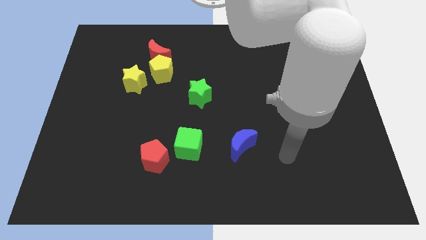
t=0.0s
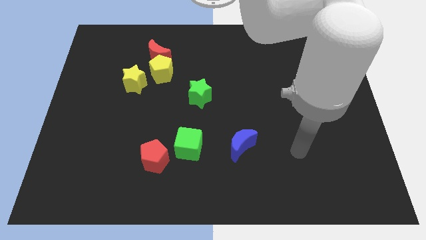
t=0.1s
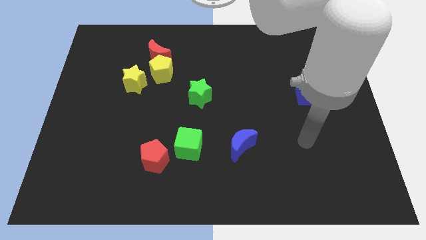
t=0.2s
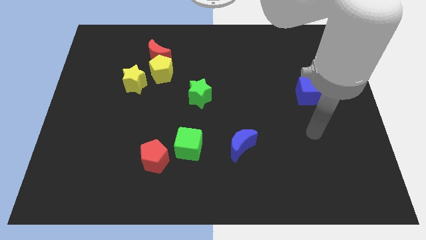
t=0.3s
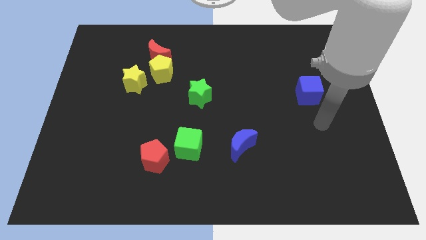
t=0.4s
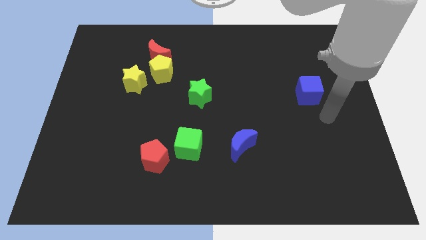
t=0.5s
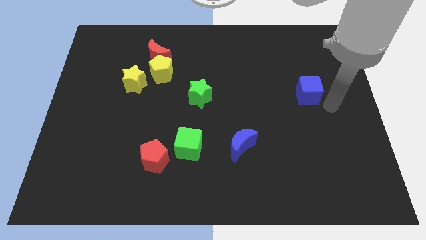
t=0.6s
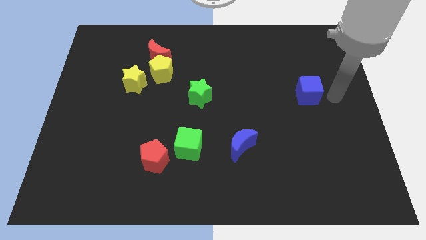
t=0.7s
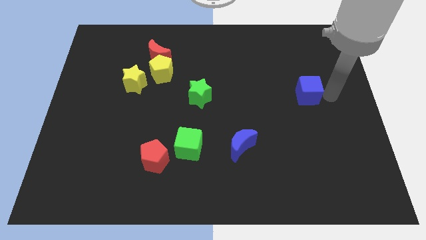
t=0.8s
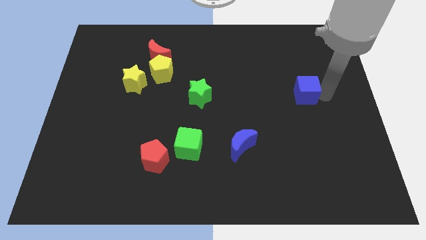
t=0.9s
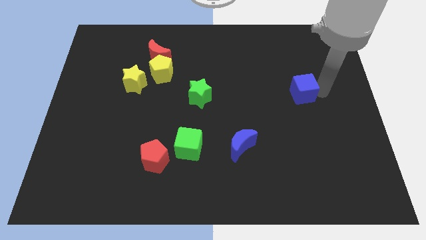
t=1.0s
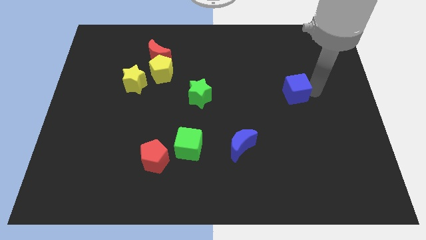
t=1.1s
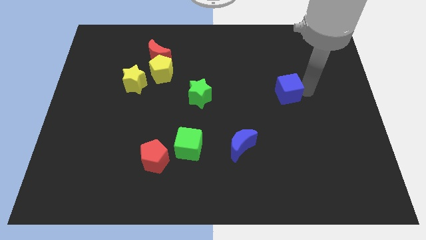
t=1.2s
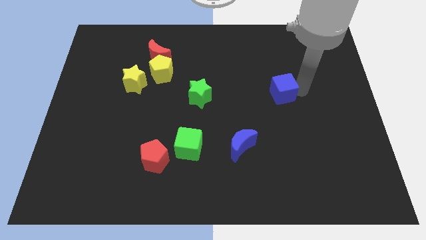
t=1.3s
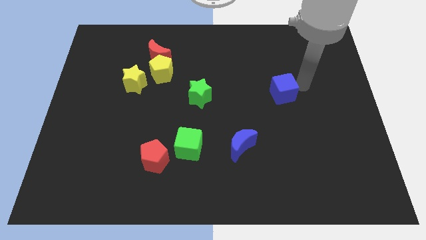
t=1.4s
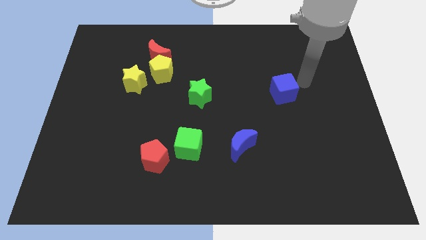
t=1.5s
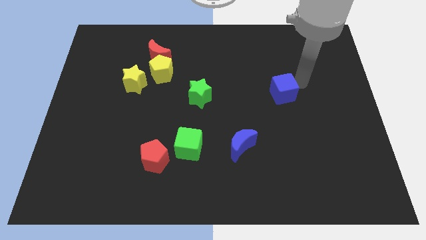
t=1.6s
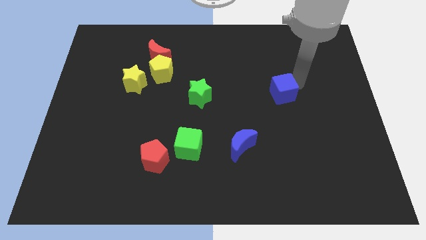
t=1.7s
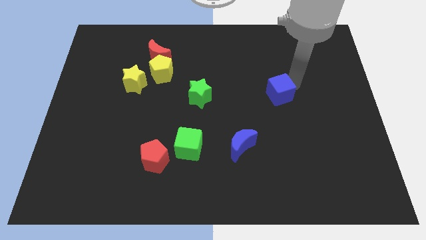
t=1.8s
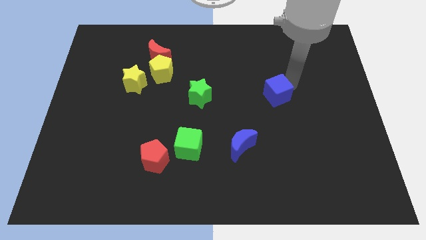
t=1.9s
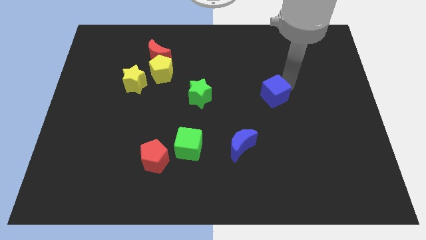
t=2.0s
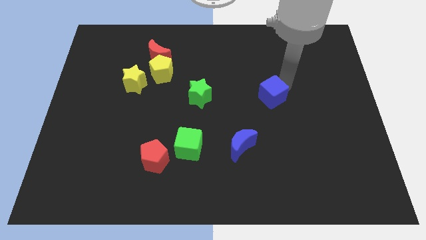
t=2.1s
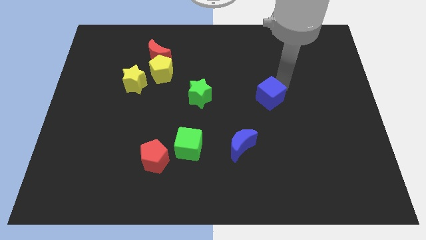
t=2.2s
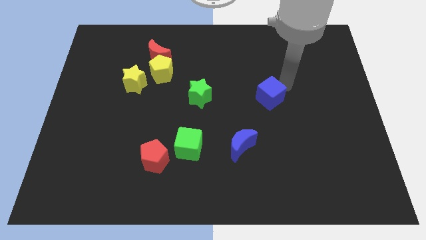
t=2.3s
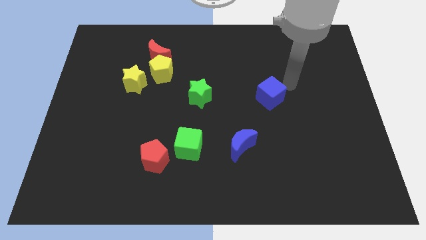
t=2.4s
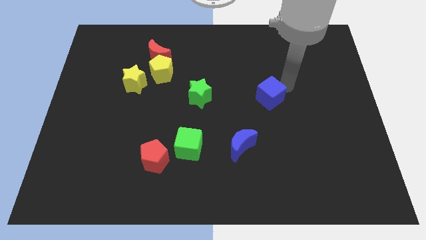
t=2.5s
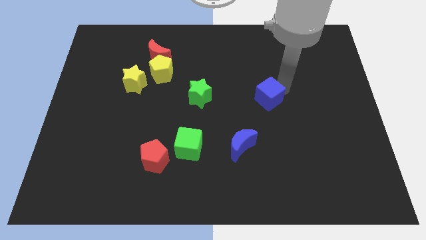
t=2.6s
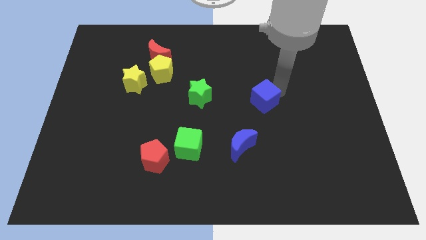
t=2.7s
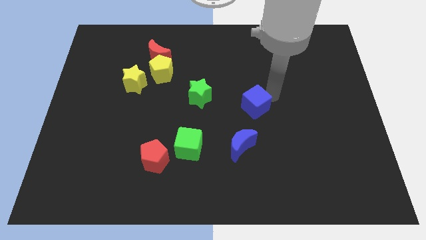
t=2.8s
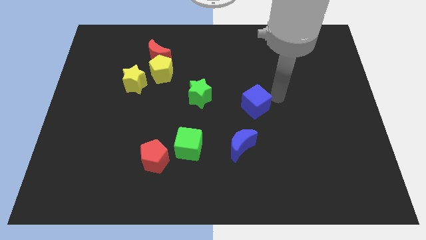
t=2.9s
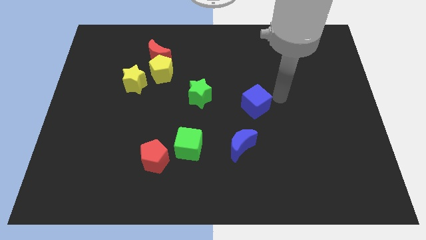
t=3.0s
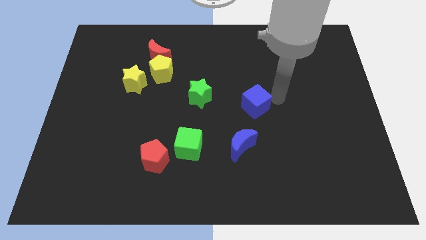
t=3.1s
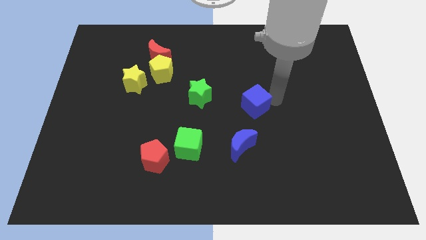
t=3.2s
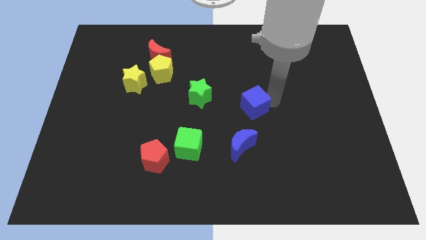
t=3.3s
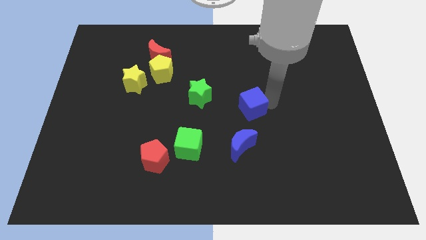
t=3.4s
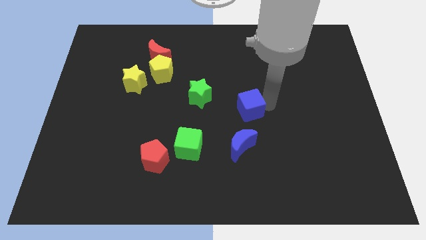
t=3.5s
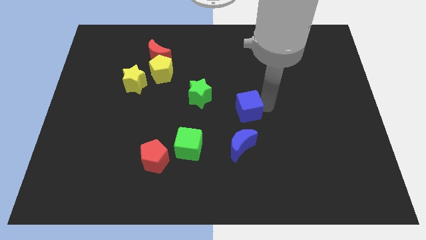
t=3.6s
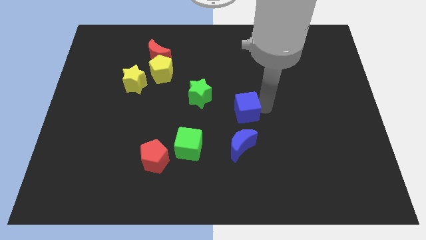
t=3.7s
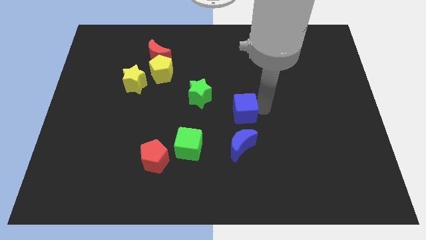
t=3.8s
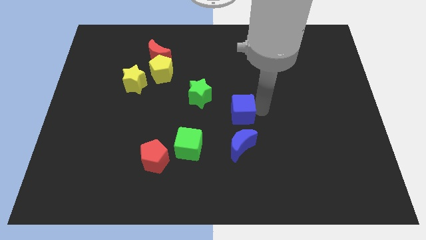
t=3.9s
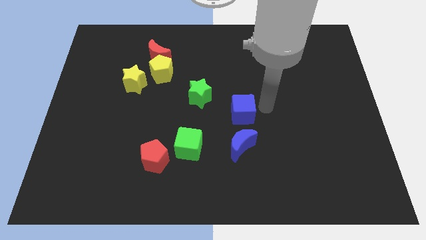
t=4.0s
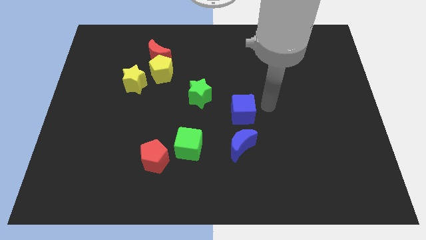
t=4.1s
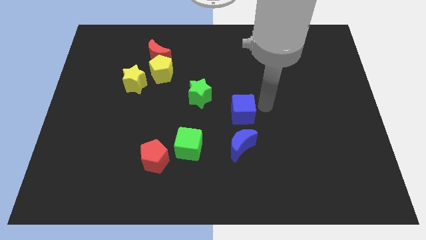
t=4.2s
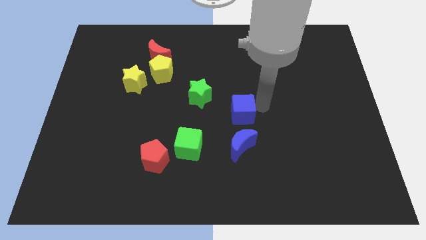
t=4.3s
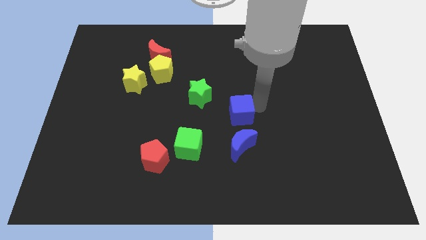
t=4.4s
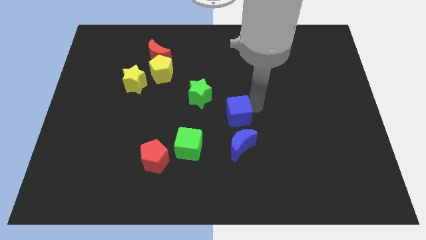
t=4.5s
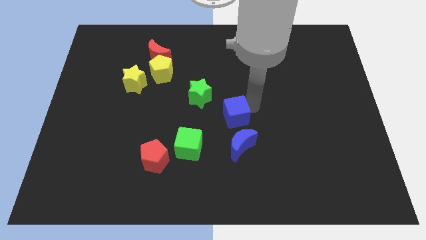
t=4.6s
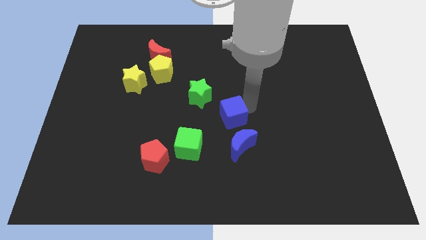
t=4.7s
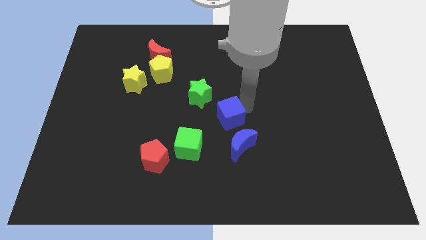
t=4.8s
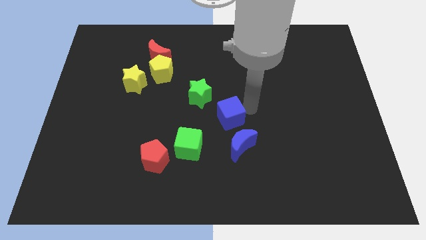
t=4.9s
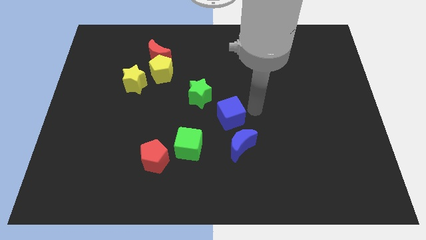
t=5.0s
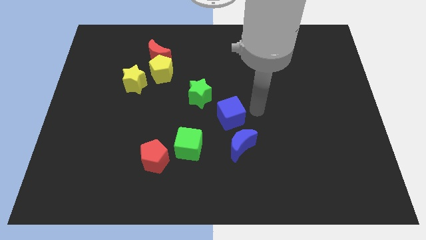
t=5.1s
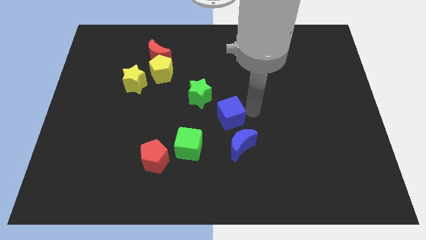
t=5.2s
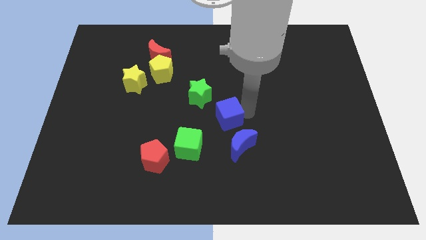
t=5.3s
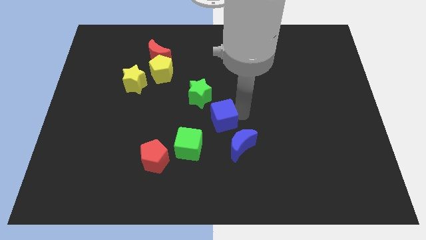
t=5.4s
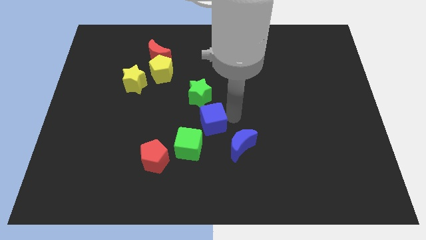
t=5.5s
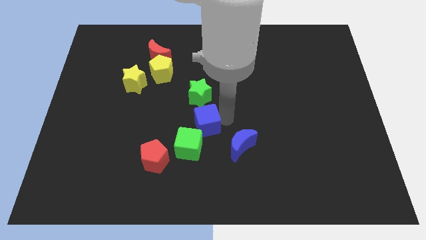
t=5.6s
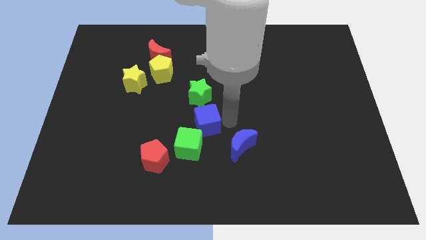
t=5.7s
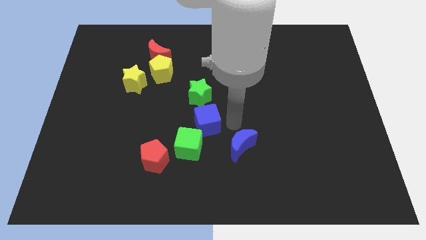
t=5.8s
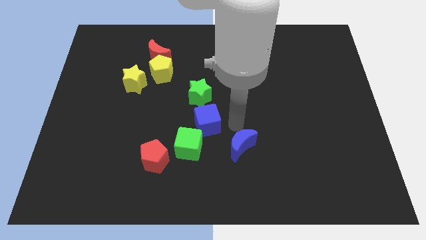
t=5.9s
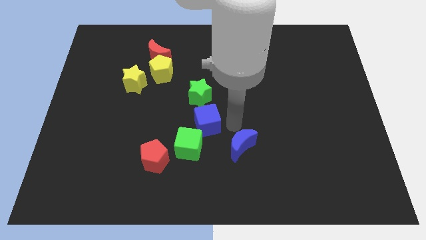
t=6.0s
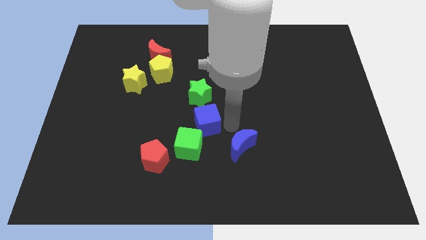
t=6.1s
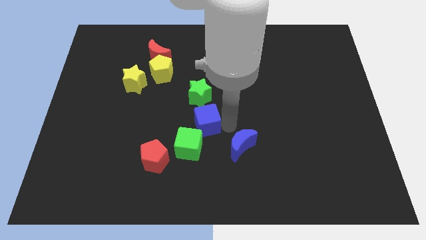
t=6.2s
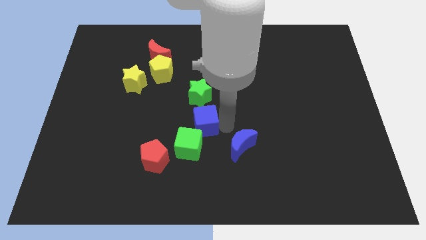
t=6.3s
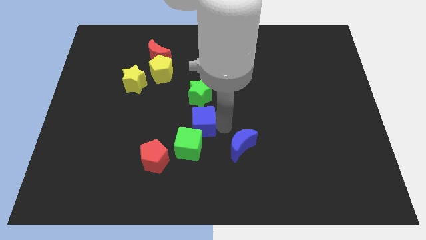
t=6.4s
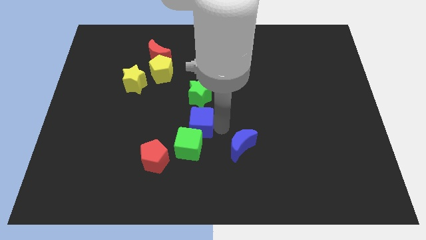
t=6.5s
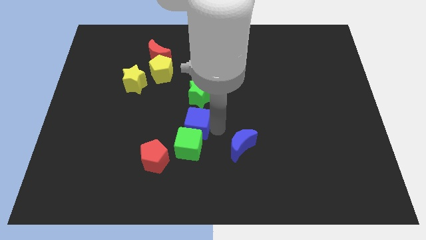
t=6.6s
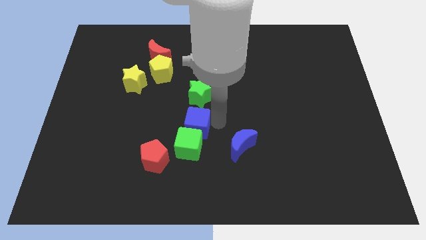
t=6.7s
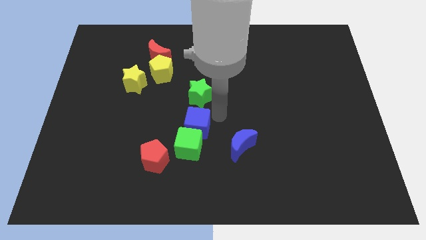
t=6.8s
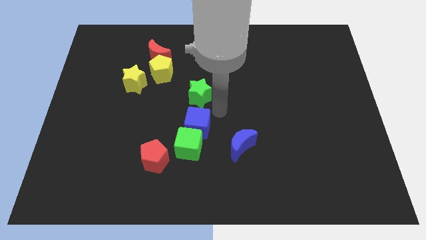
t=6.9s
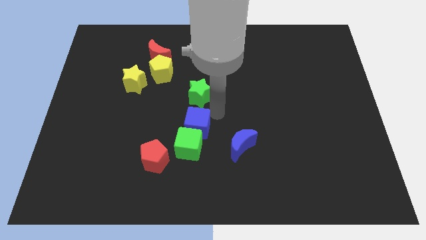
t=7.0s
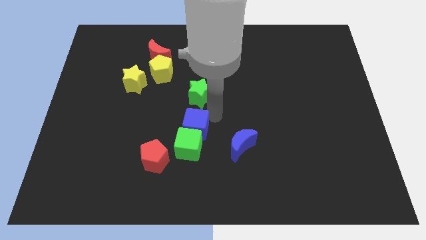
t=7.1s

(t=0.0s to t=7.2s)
move the blue cube to the left side of the blue moon

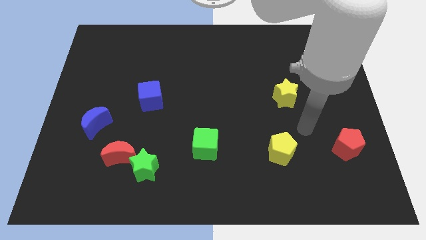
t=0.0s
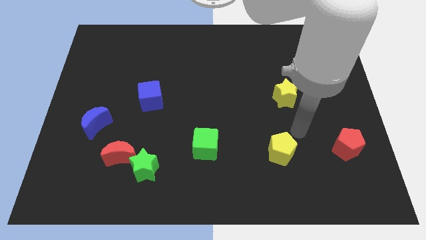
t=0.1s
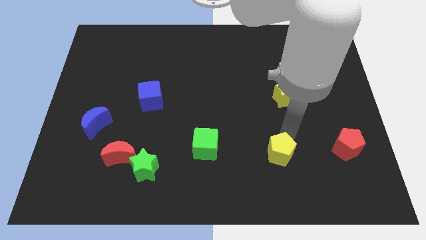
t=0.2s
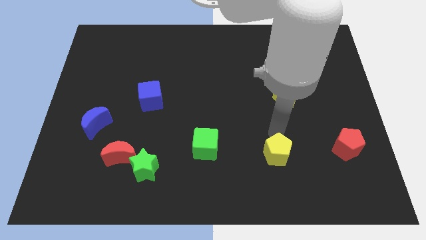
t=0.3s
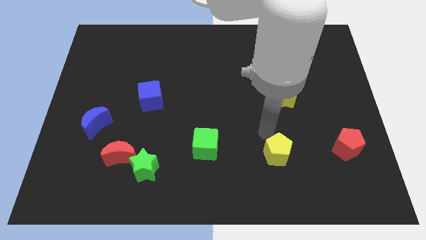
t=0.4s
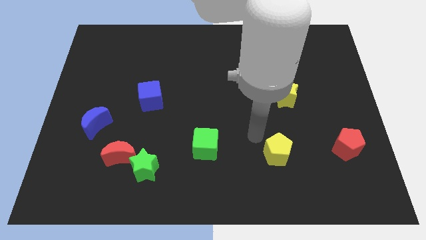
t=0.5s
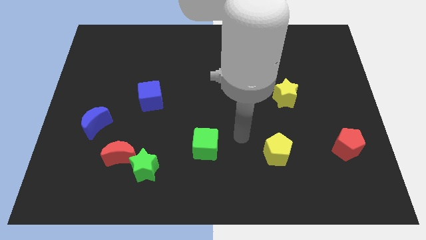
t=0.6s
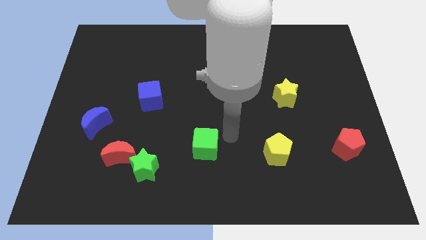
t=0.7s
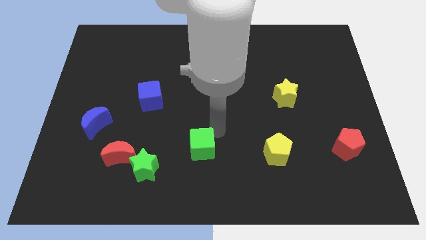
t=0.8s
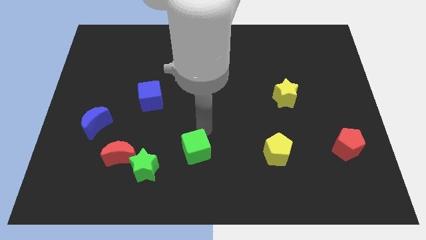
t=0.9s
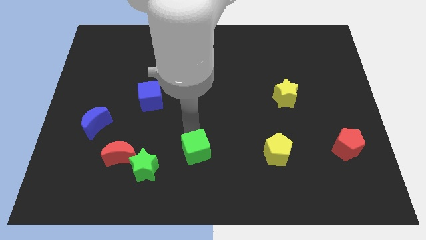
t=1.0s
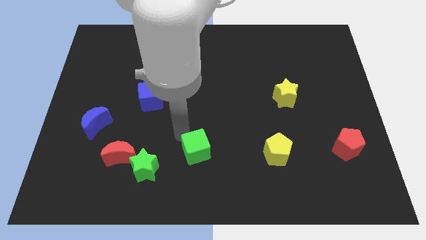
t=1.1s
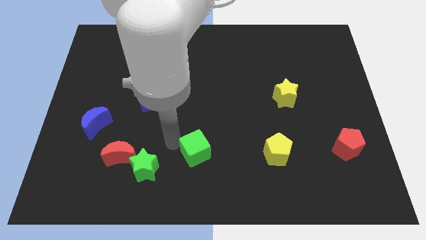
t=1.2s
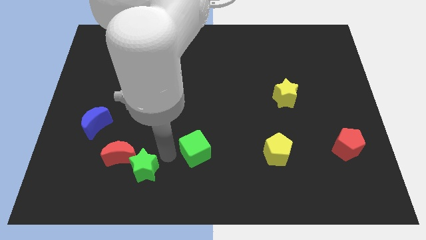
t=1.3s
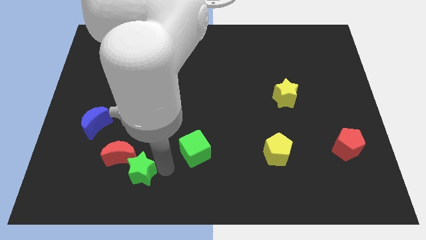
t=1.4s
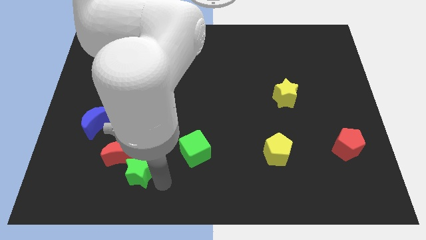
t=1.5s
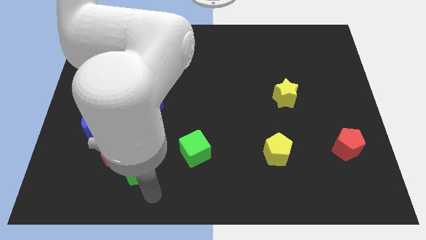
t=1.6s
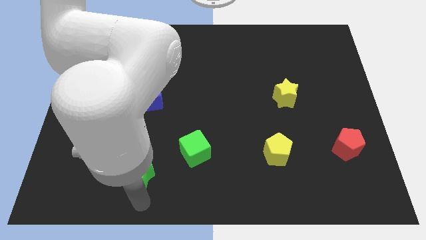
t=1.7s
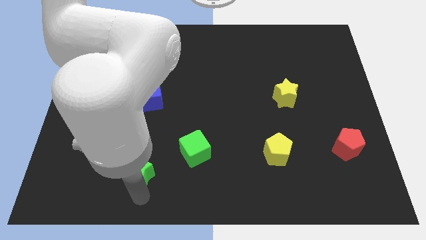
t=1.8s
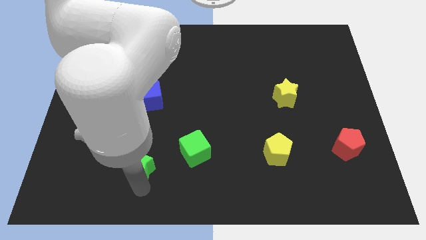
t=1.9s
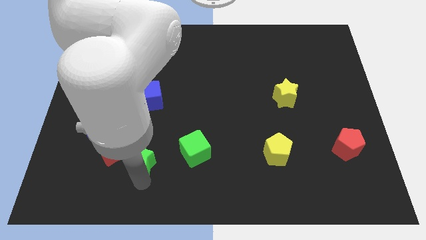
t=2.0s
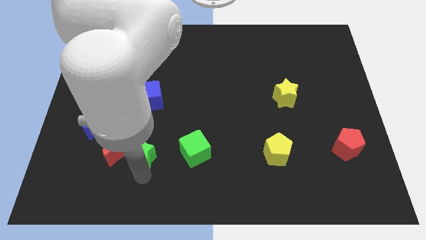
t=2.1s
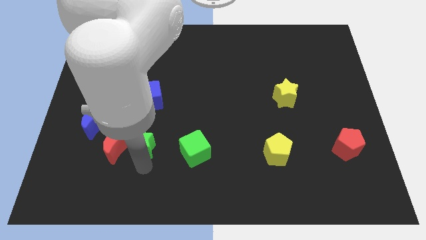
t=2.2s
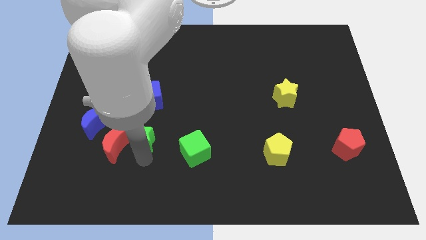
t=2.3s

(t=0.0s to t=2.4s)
put the green star just right of the blue moon
